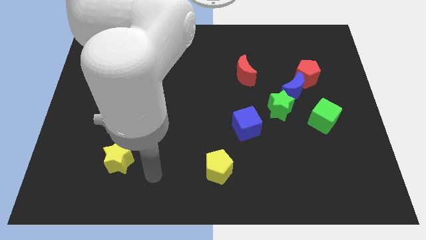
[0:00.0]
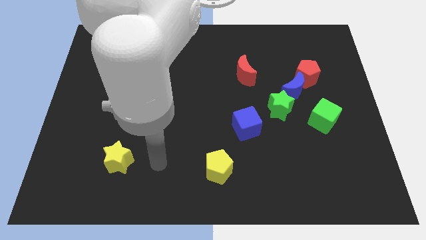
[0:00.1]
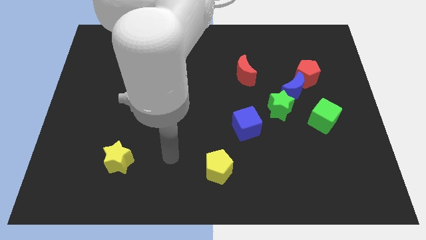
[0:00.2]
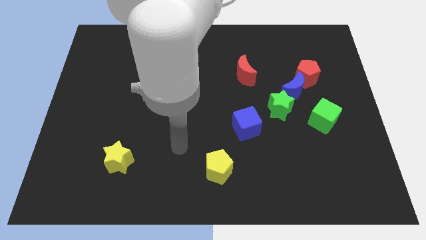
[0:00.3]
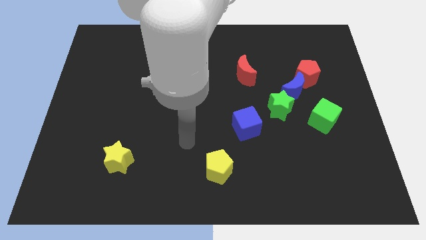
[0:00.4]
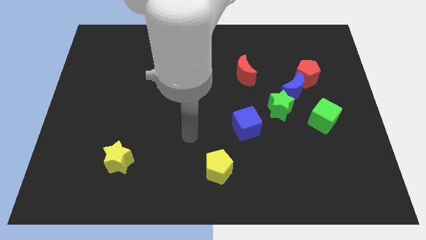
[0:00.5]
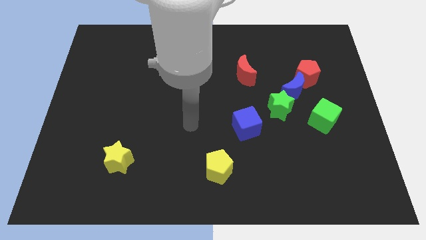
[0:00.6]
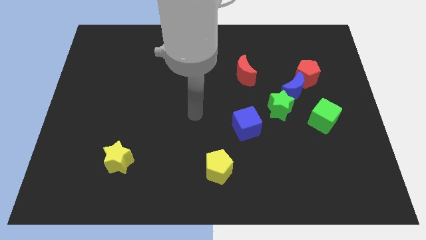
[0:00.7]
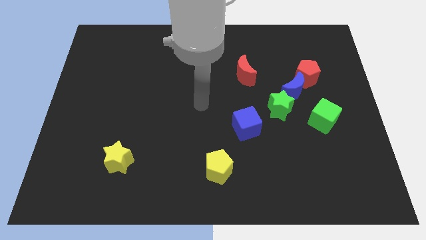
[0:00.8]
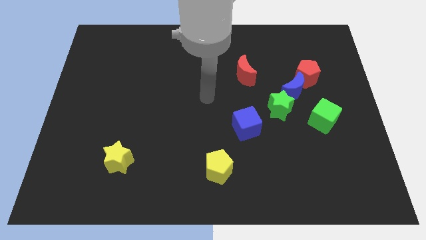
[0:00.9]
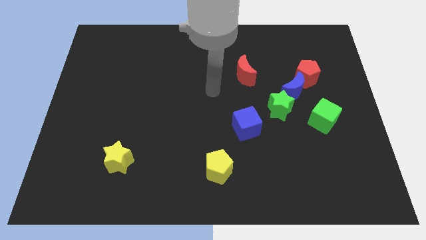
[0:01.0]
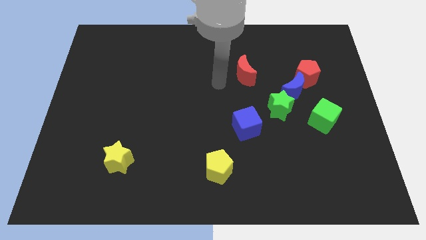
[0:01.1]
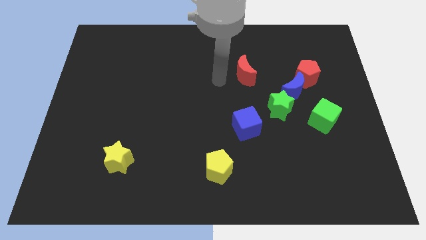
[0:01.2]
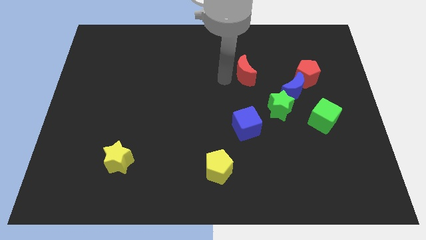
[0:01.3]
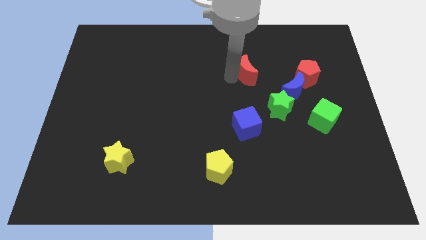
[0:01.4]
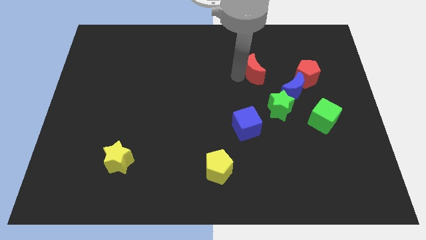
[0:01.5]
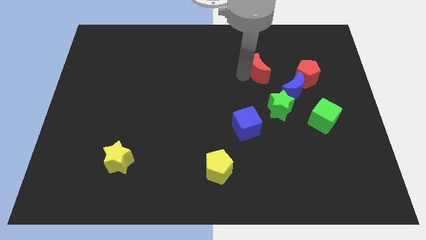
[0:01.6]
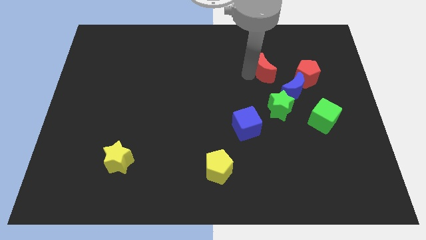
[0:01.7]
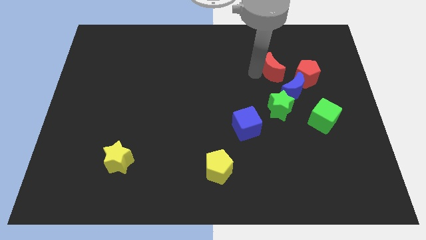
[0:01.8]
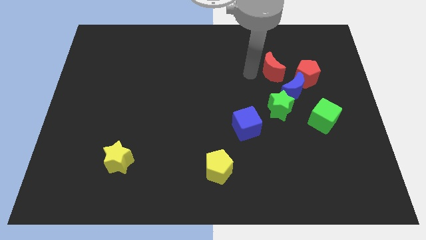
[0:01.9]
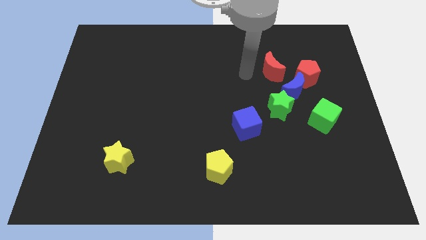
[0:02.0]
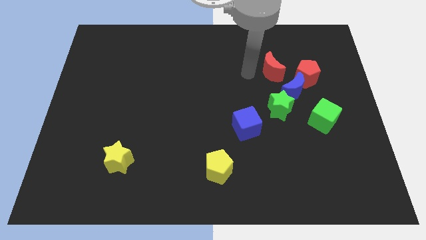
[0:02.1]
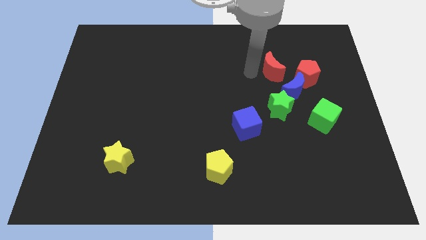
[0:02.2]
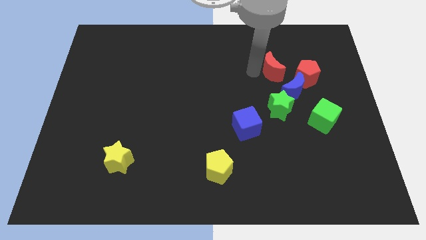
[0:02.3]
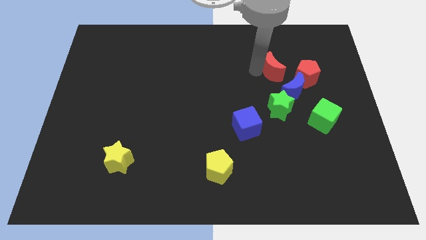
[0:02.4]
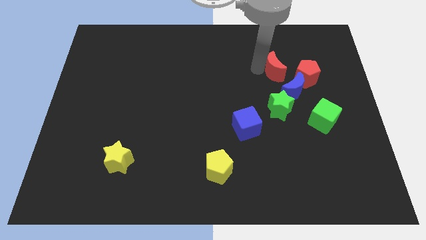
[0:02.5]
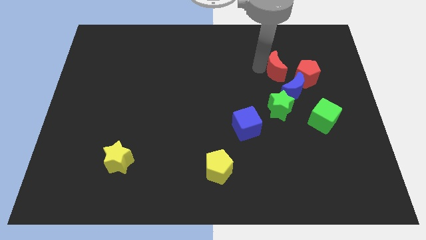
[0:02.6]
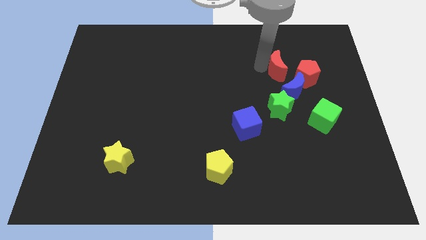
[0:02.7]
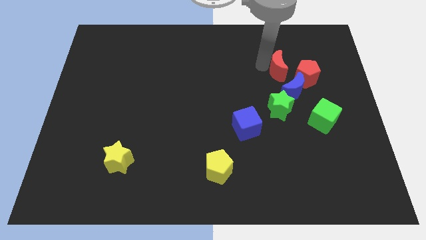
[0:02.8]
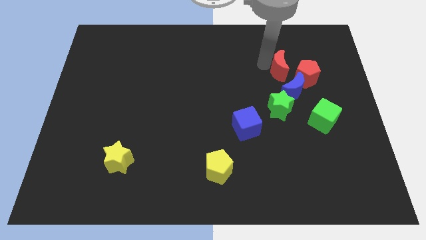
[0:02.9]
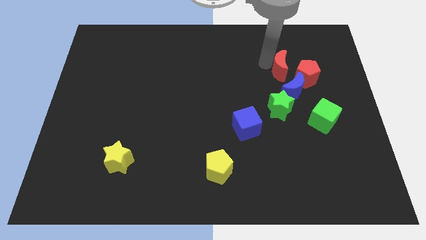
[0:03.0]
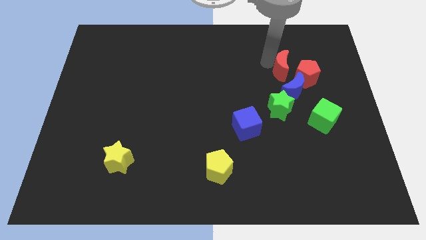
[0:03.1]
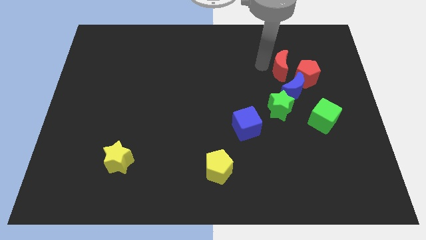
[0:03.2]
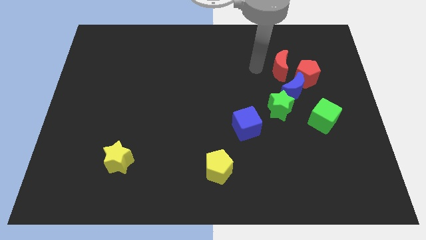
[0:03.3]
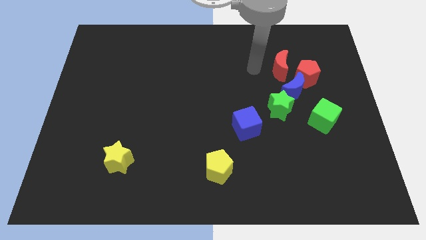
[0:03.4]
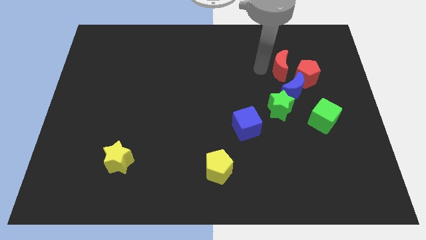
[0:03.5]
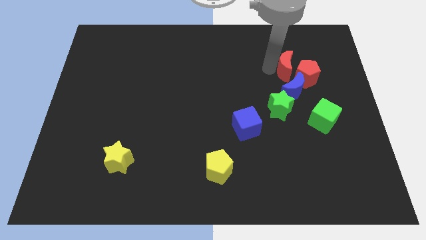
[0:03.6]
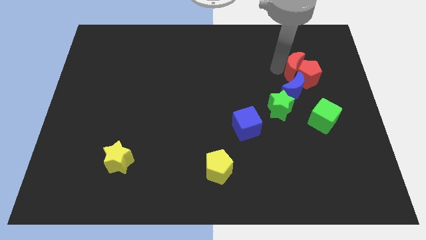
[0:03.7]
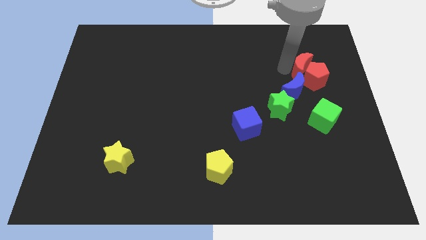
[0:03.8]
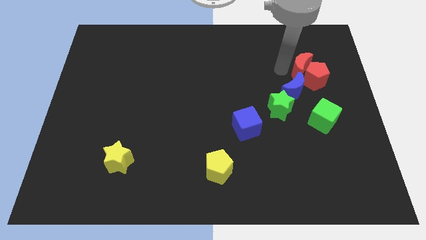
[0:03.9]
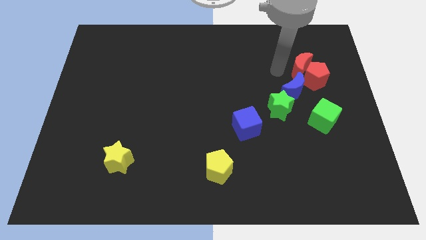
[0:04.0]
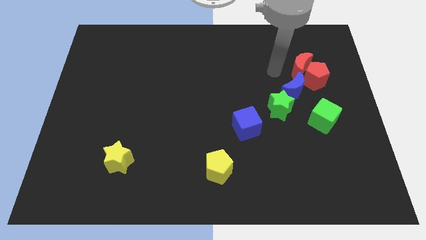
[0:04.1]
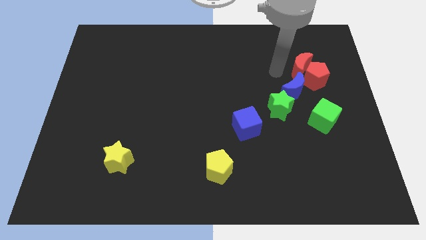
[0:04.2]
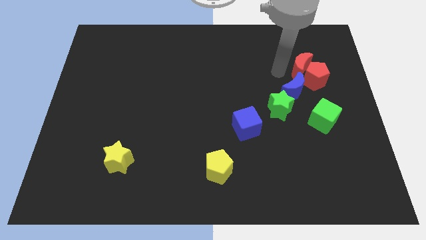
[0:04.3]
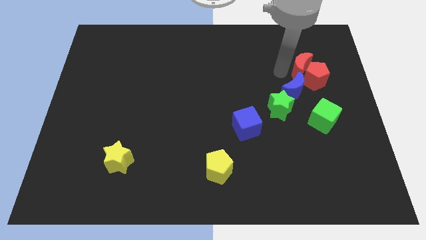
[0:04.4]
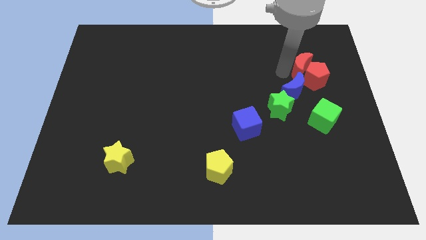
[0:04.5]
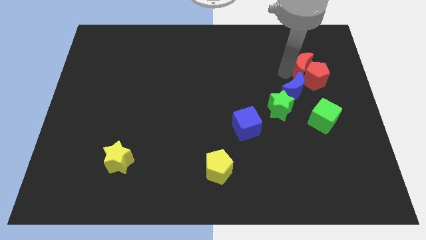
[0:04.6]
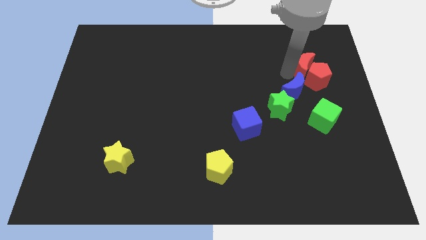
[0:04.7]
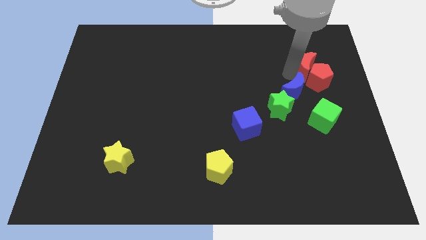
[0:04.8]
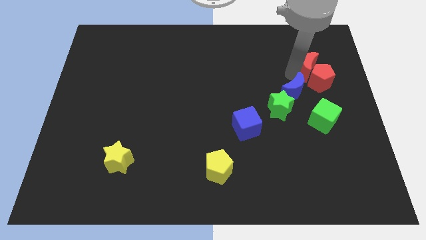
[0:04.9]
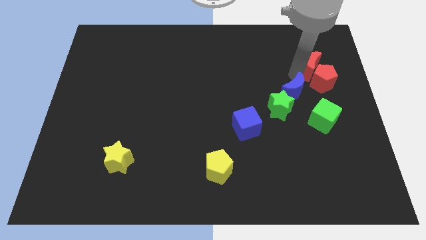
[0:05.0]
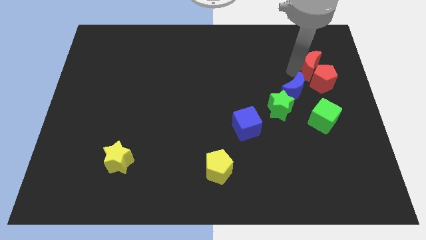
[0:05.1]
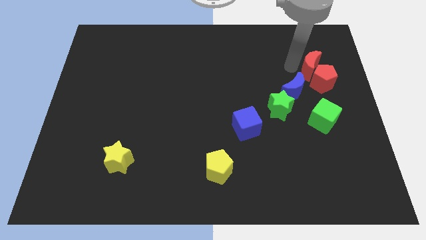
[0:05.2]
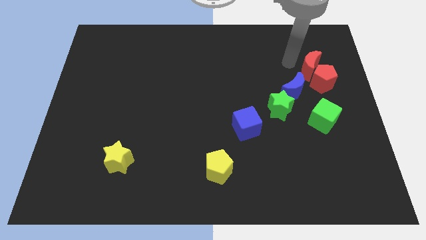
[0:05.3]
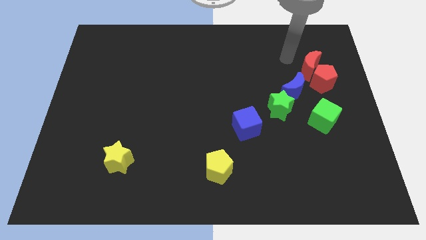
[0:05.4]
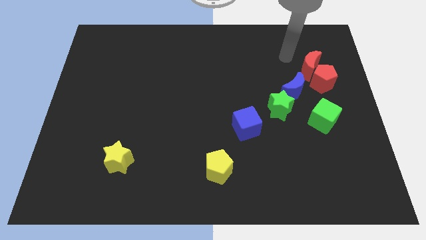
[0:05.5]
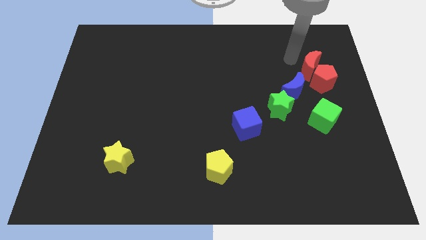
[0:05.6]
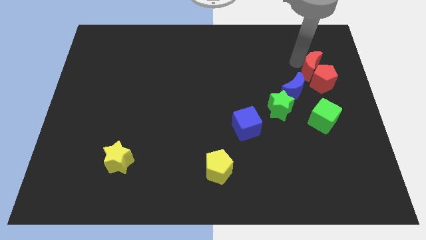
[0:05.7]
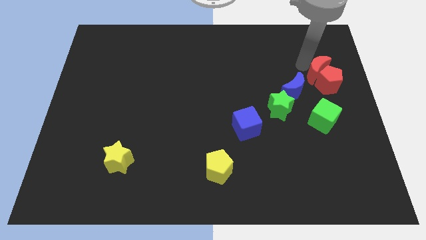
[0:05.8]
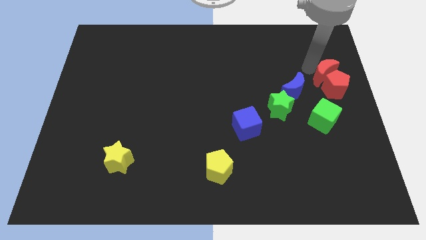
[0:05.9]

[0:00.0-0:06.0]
slide the red moon to the right side of the board
